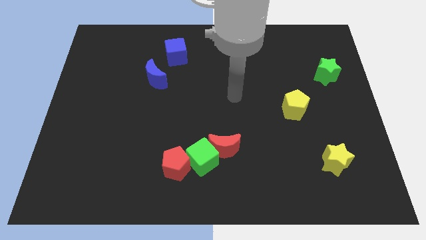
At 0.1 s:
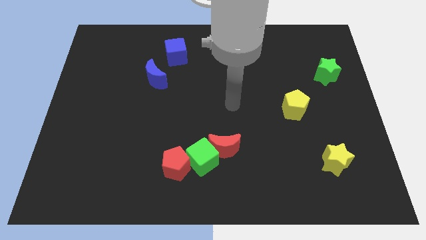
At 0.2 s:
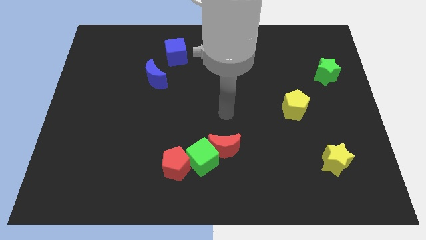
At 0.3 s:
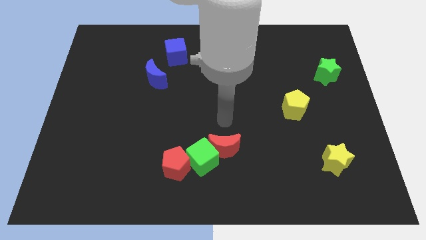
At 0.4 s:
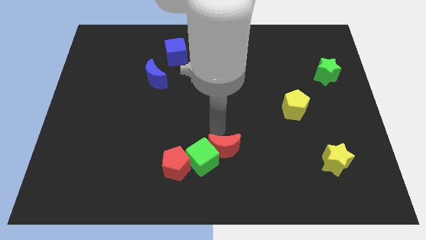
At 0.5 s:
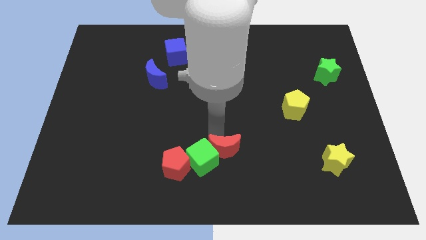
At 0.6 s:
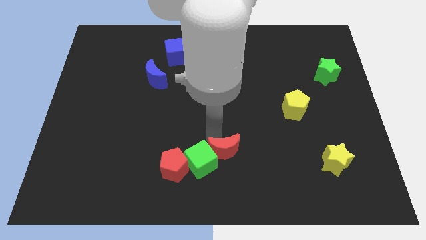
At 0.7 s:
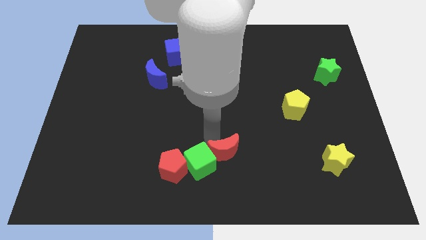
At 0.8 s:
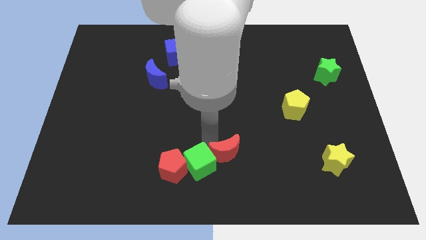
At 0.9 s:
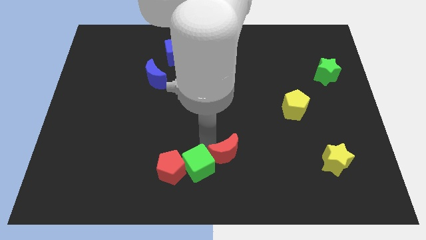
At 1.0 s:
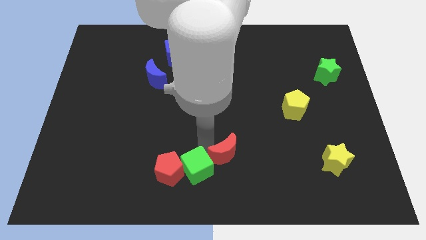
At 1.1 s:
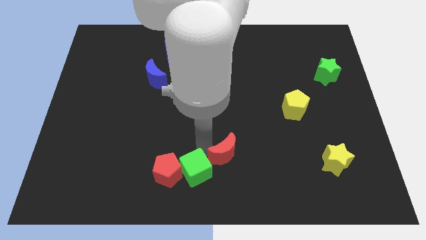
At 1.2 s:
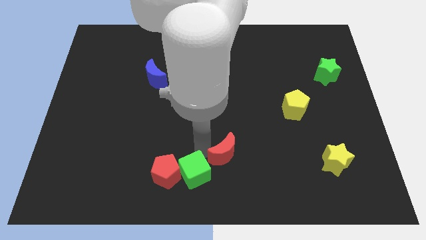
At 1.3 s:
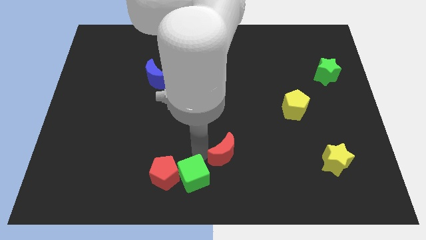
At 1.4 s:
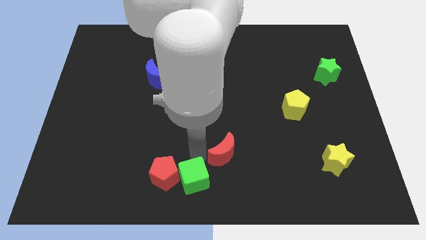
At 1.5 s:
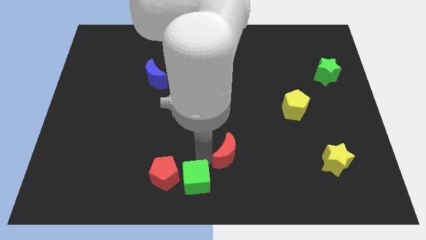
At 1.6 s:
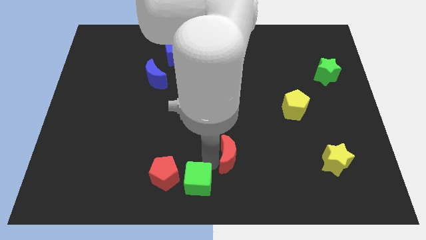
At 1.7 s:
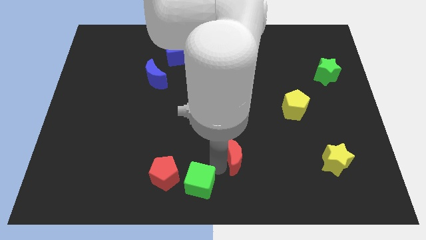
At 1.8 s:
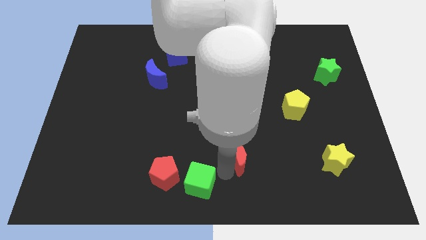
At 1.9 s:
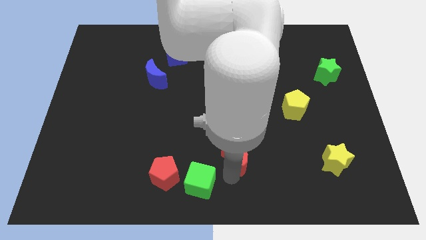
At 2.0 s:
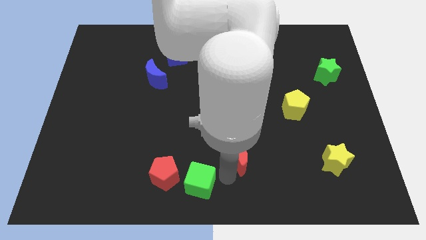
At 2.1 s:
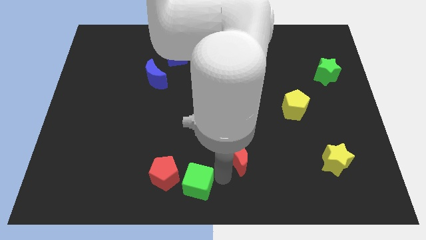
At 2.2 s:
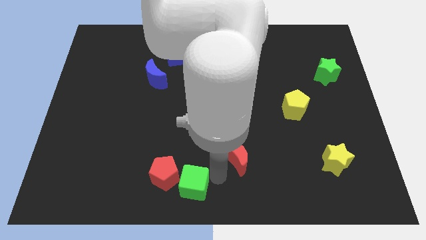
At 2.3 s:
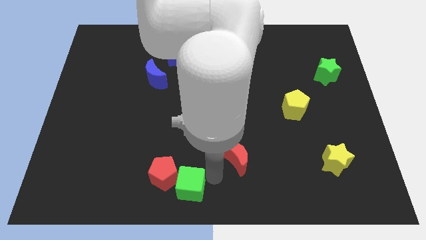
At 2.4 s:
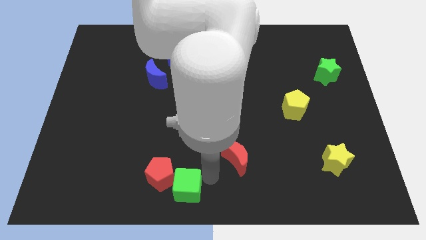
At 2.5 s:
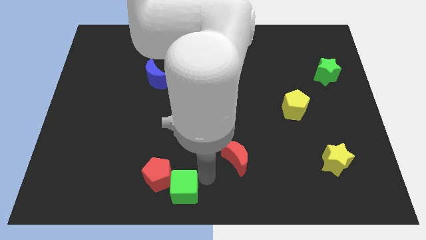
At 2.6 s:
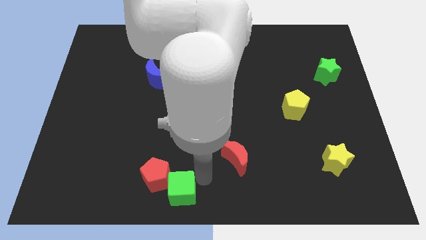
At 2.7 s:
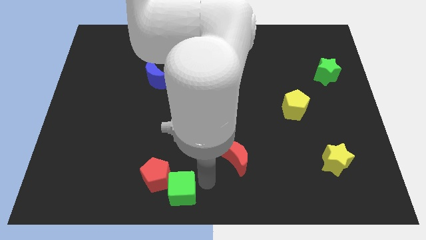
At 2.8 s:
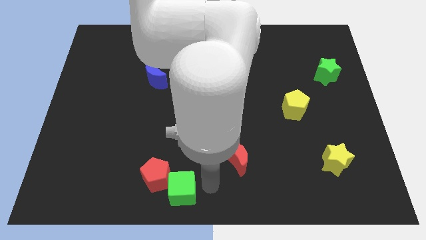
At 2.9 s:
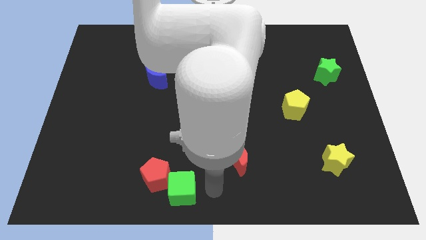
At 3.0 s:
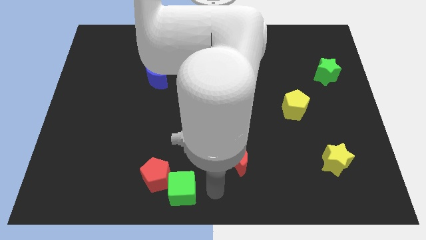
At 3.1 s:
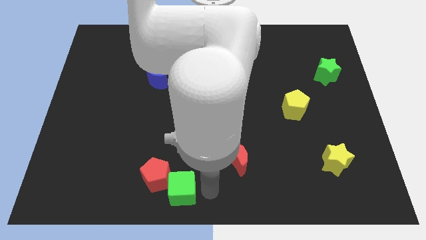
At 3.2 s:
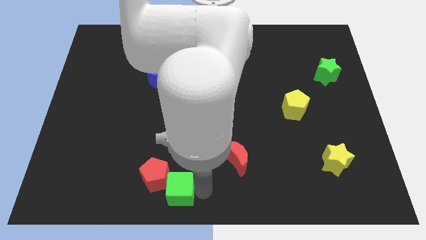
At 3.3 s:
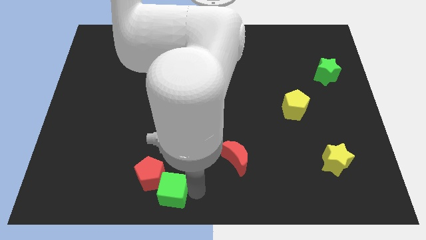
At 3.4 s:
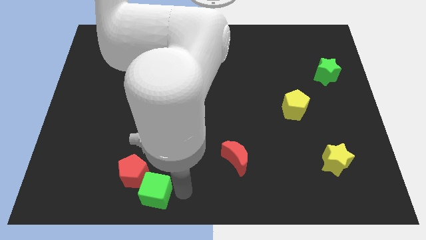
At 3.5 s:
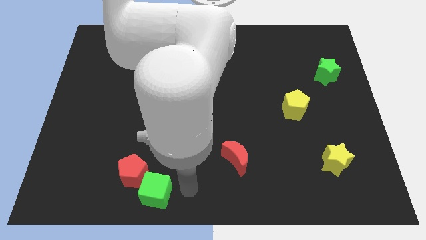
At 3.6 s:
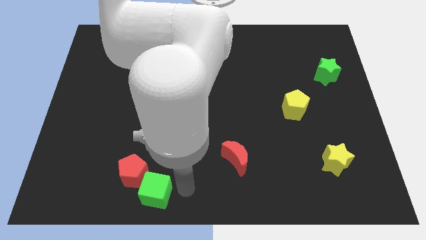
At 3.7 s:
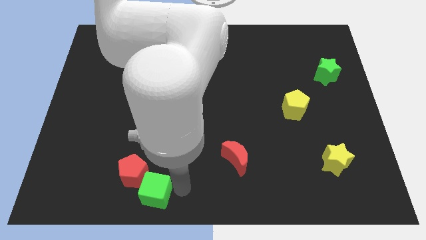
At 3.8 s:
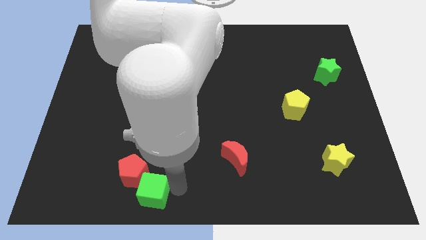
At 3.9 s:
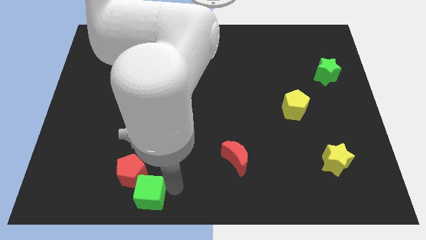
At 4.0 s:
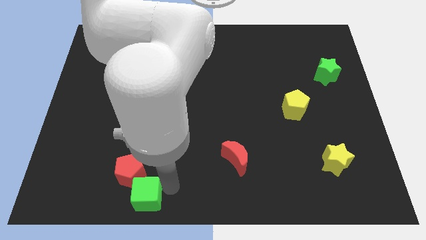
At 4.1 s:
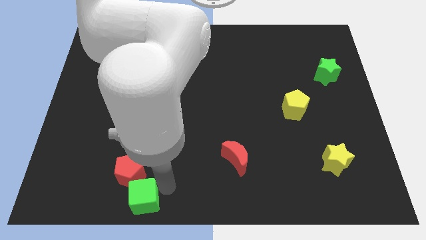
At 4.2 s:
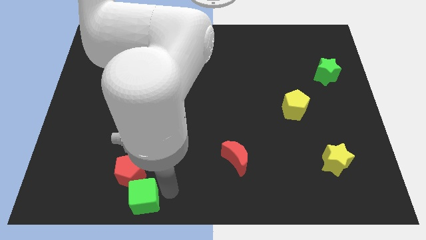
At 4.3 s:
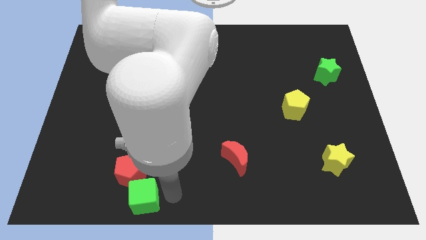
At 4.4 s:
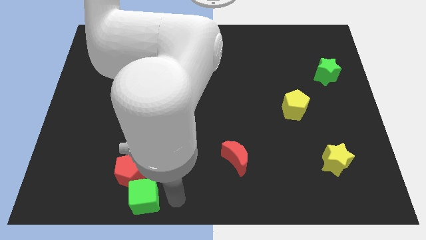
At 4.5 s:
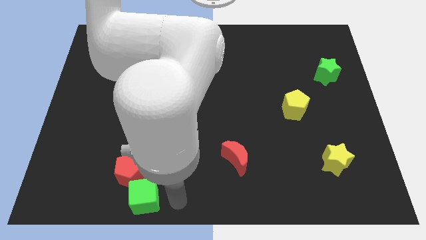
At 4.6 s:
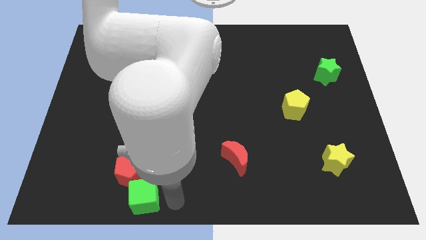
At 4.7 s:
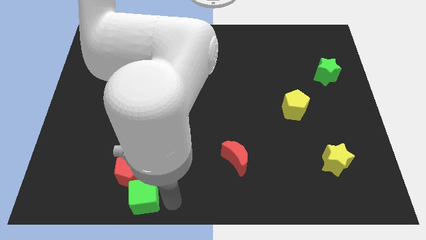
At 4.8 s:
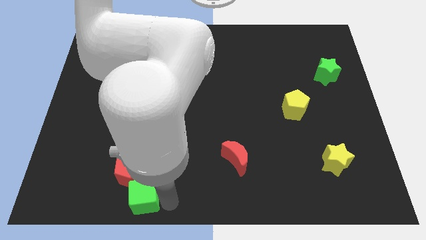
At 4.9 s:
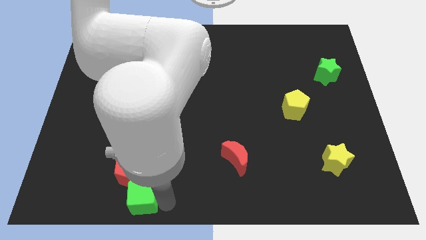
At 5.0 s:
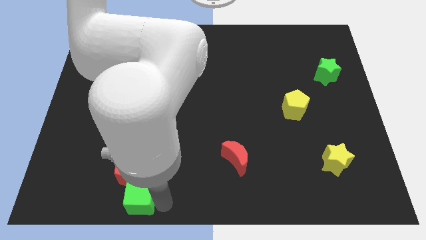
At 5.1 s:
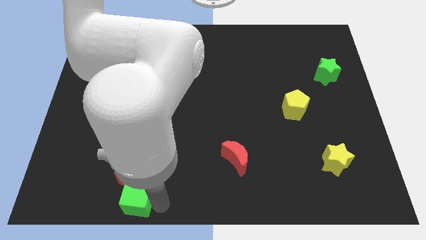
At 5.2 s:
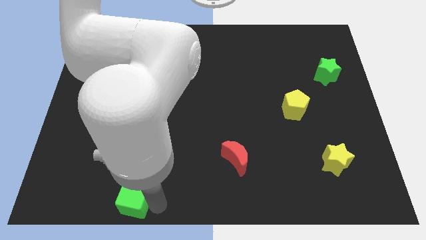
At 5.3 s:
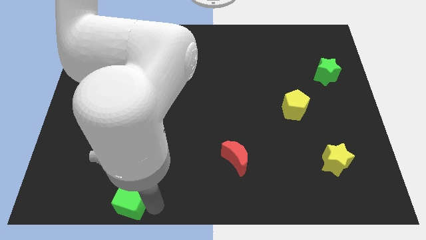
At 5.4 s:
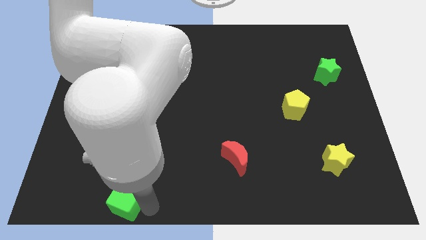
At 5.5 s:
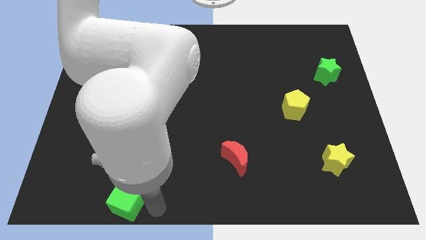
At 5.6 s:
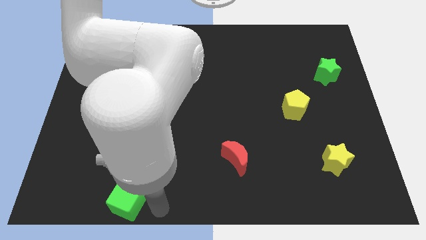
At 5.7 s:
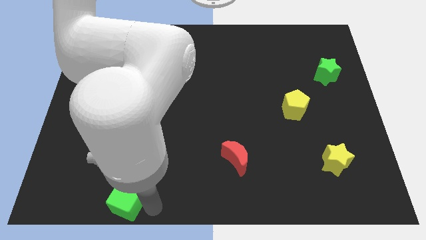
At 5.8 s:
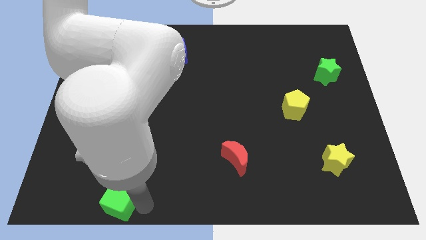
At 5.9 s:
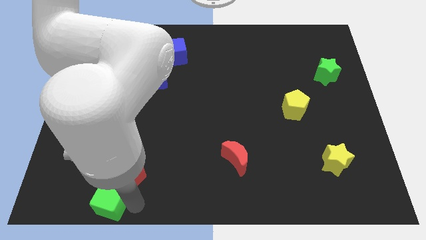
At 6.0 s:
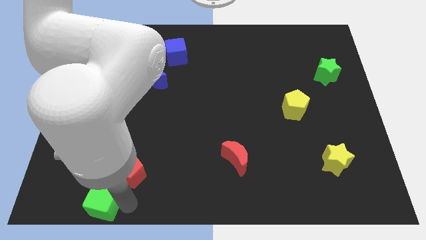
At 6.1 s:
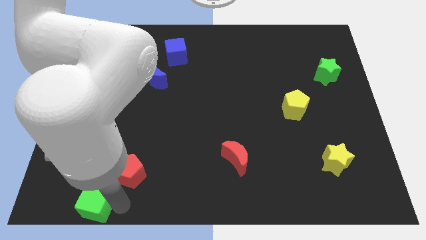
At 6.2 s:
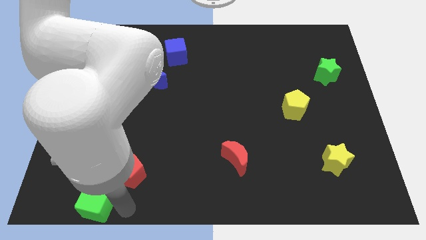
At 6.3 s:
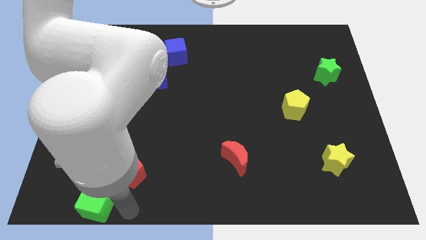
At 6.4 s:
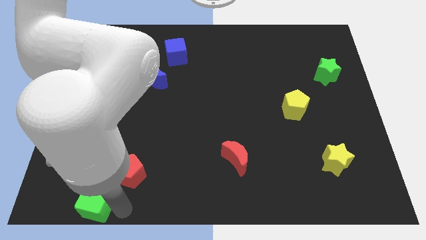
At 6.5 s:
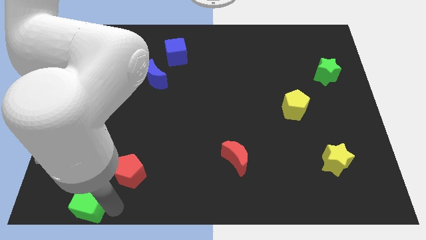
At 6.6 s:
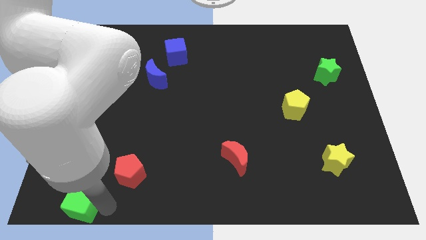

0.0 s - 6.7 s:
slide the green cube to the bottom left

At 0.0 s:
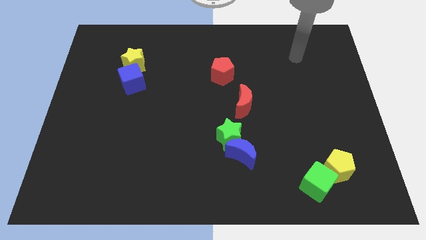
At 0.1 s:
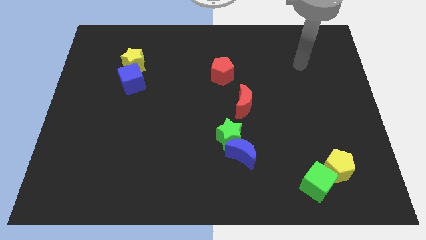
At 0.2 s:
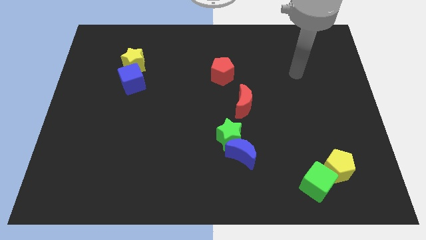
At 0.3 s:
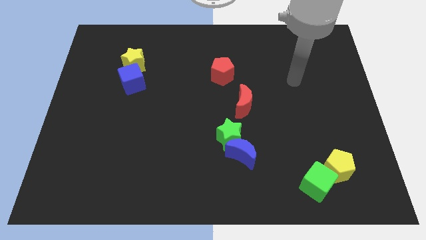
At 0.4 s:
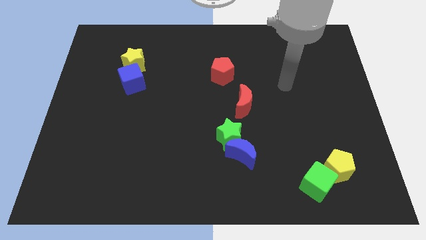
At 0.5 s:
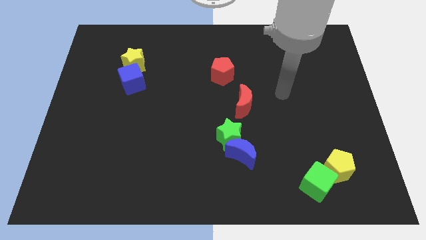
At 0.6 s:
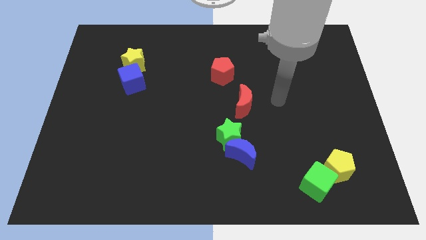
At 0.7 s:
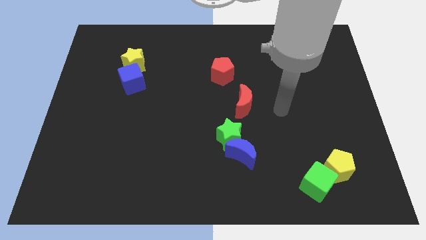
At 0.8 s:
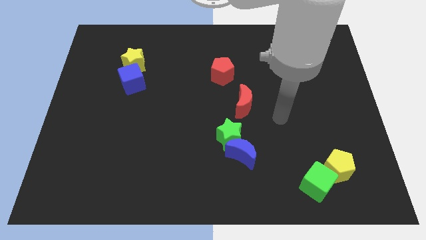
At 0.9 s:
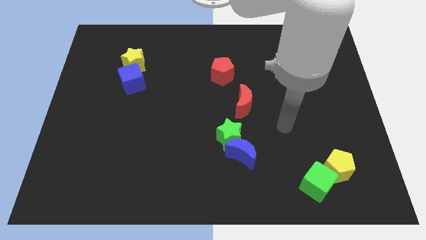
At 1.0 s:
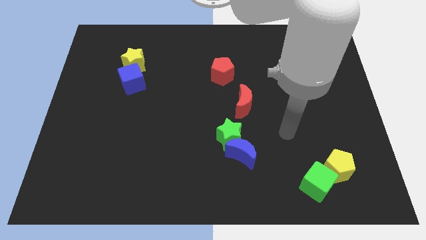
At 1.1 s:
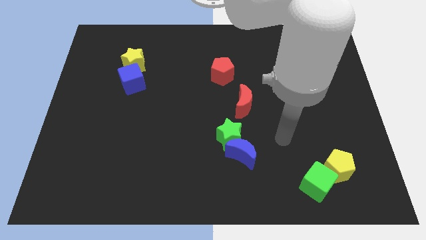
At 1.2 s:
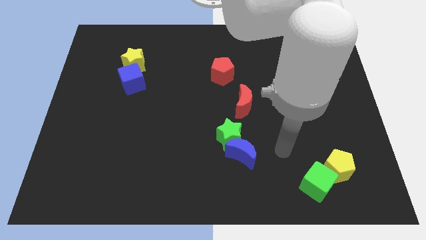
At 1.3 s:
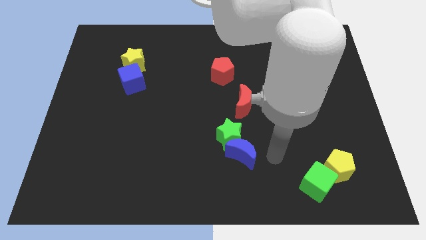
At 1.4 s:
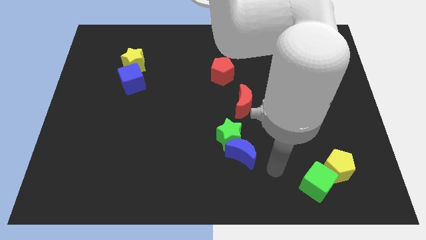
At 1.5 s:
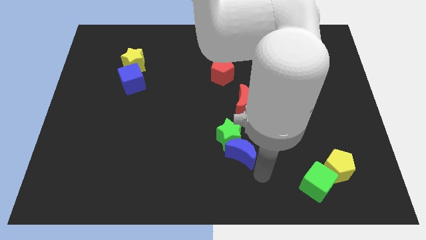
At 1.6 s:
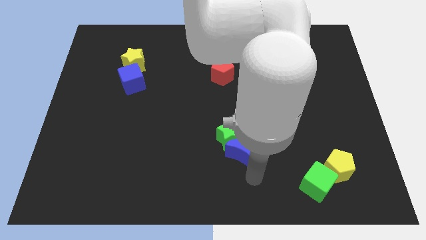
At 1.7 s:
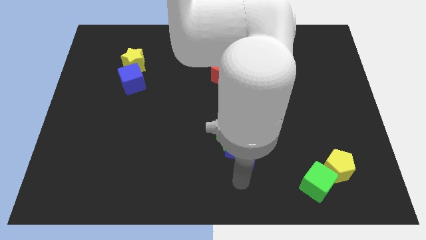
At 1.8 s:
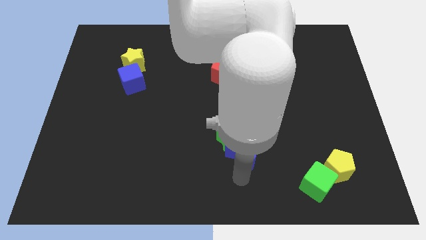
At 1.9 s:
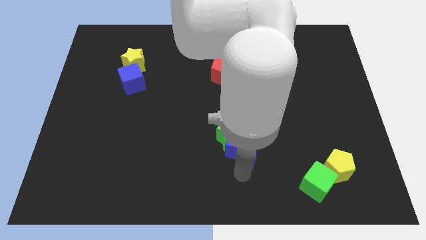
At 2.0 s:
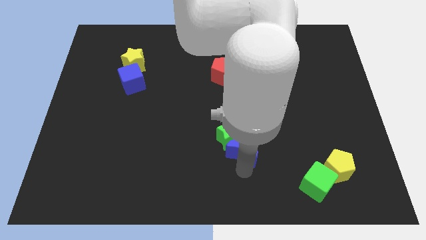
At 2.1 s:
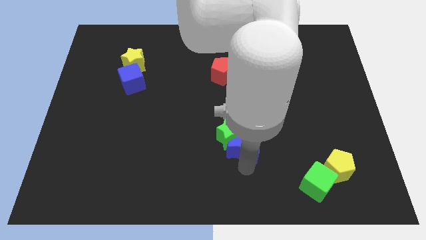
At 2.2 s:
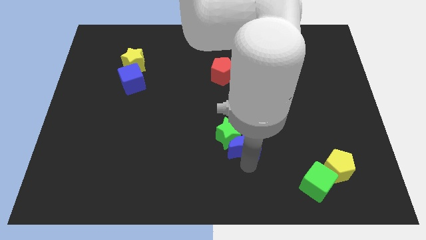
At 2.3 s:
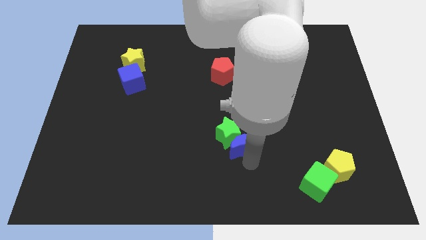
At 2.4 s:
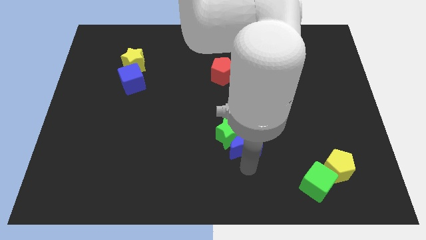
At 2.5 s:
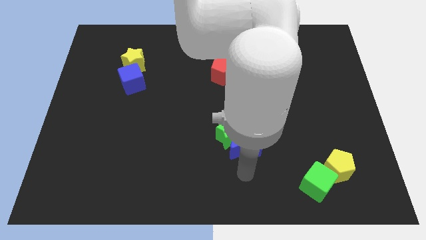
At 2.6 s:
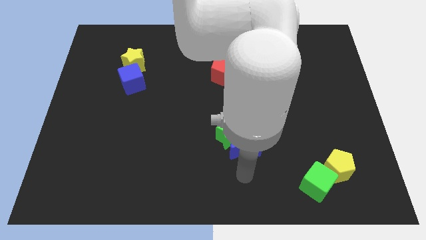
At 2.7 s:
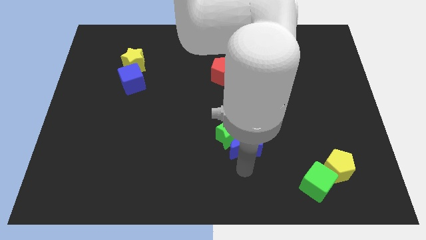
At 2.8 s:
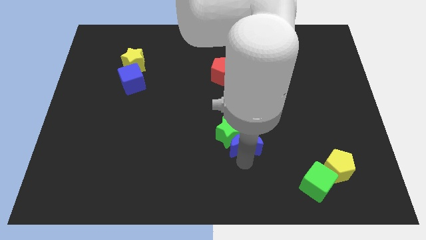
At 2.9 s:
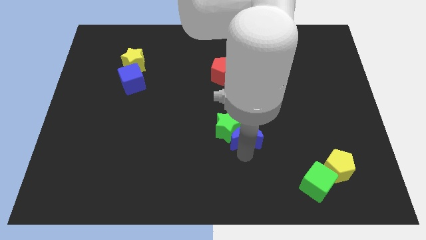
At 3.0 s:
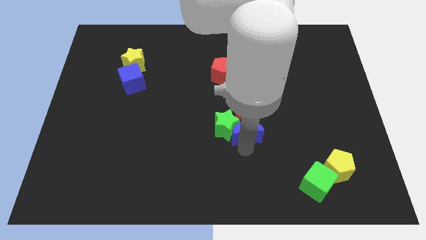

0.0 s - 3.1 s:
slide the blue moon to the middle of the board
